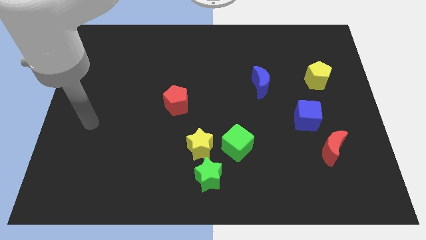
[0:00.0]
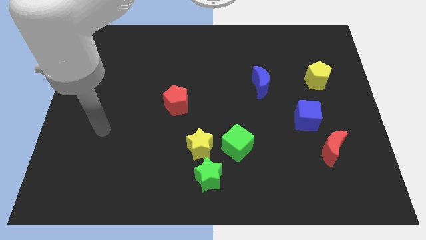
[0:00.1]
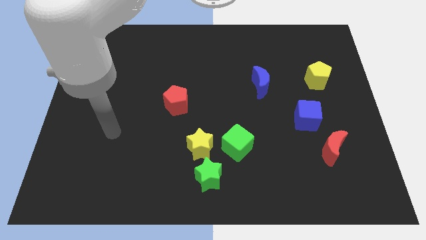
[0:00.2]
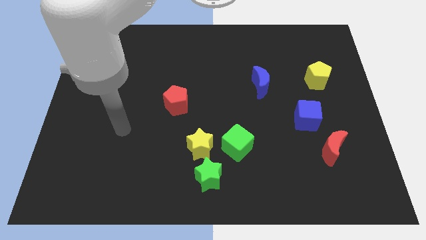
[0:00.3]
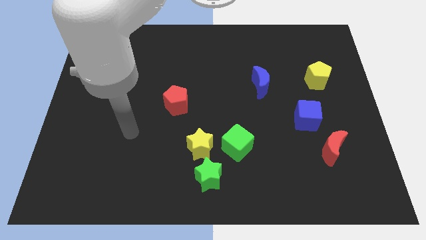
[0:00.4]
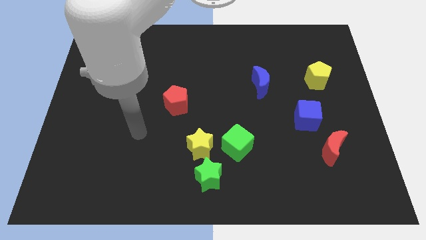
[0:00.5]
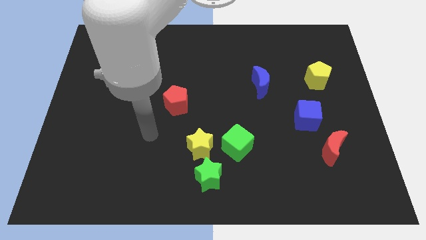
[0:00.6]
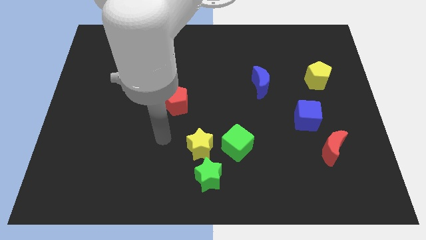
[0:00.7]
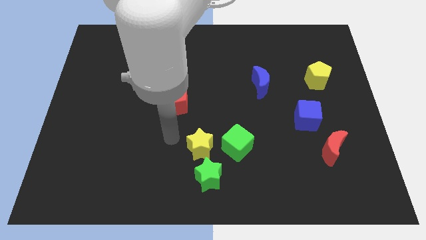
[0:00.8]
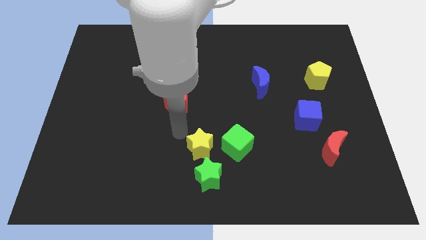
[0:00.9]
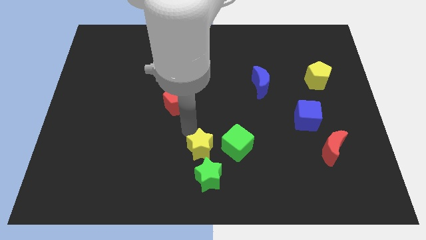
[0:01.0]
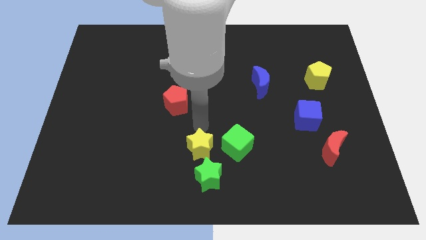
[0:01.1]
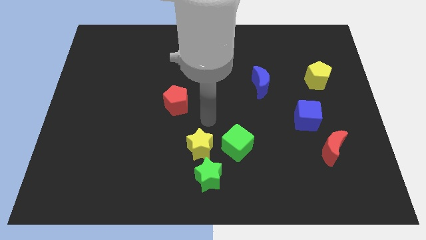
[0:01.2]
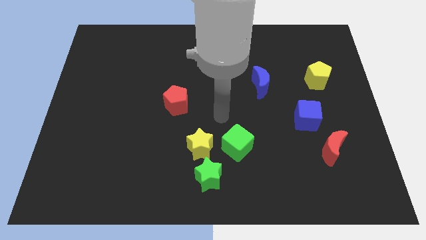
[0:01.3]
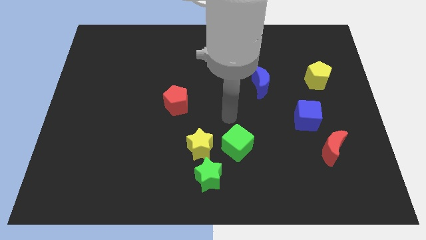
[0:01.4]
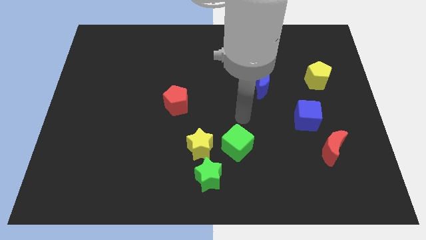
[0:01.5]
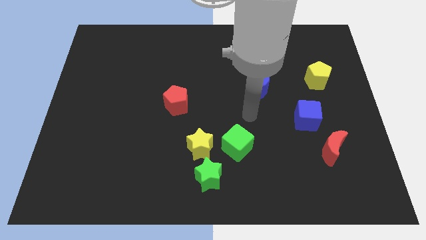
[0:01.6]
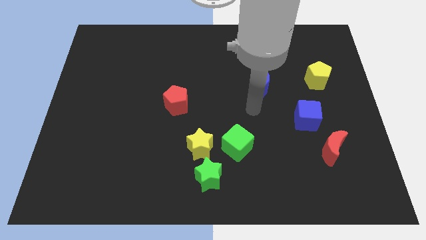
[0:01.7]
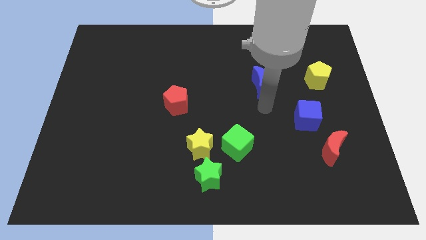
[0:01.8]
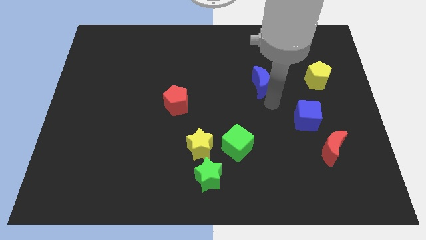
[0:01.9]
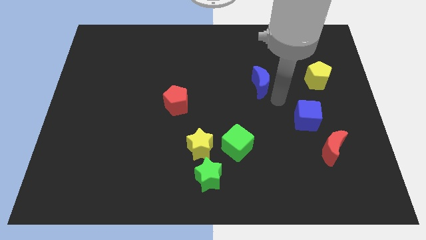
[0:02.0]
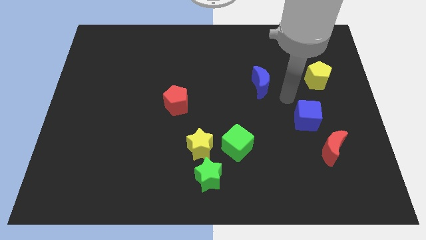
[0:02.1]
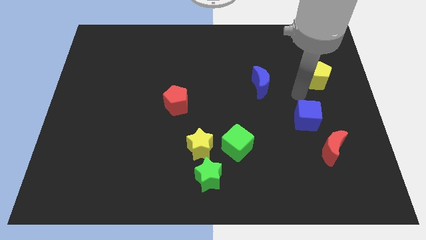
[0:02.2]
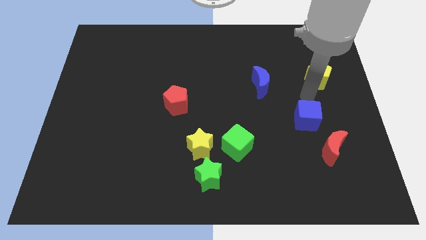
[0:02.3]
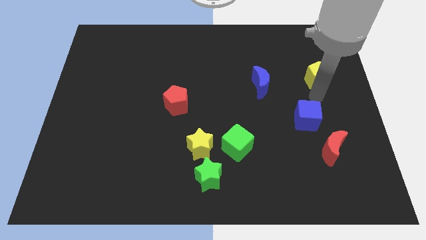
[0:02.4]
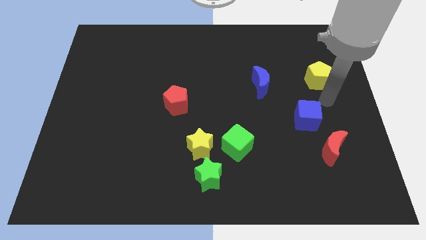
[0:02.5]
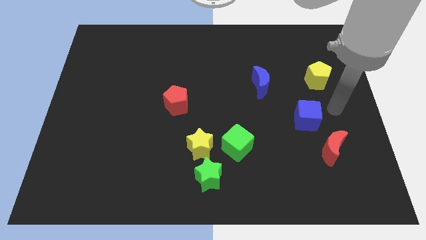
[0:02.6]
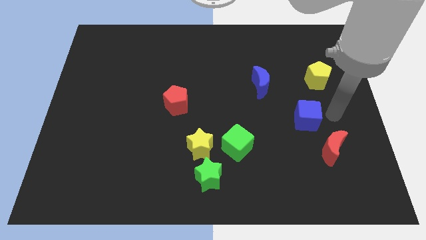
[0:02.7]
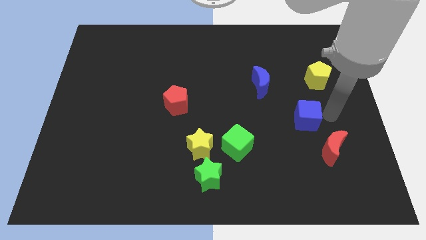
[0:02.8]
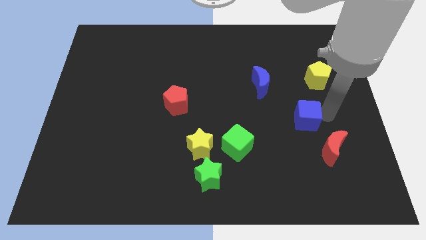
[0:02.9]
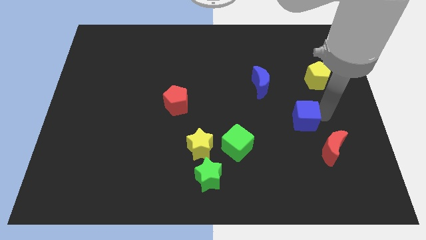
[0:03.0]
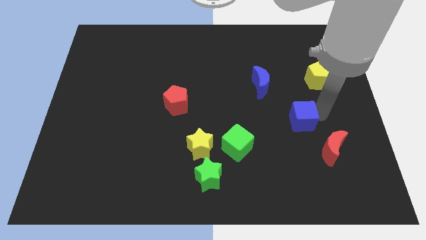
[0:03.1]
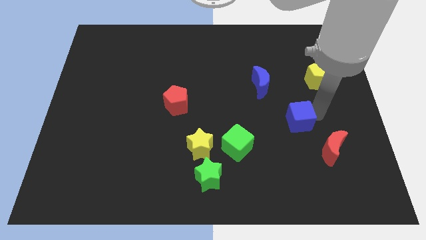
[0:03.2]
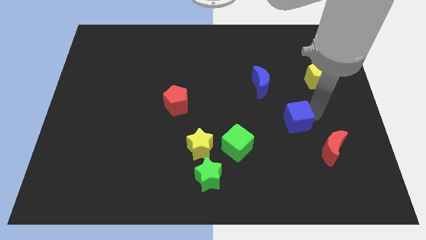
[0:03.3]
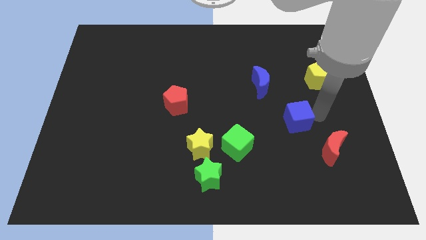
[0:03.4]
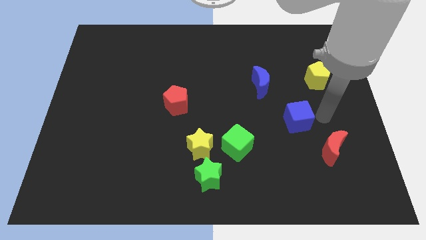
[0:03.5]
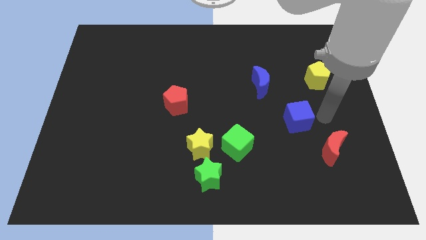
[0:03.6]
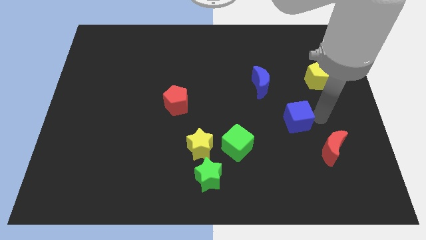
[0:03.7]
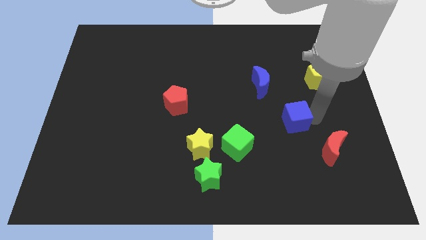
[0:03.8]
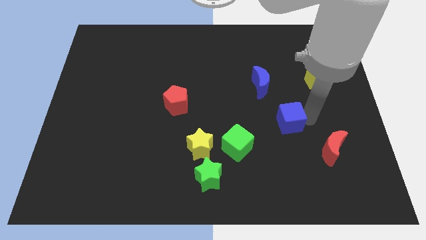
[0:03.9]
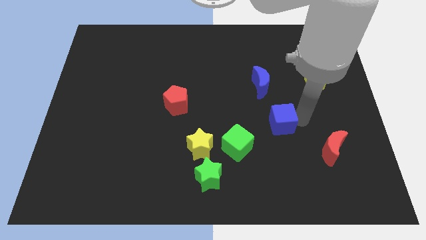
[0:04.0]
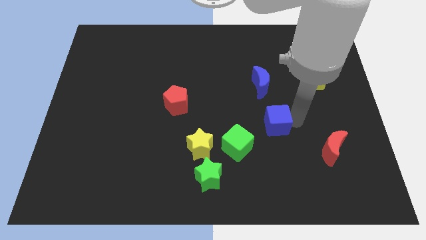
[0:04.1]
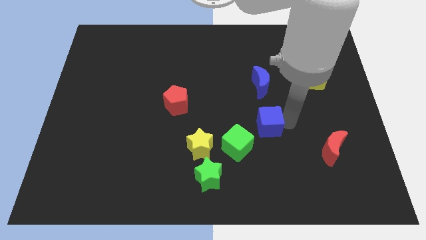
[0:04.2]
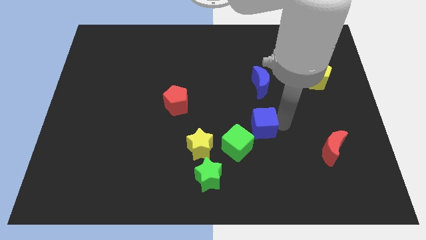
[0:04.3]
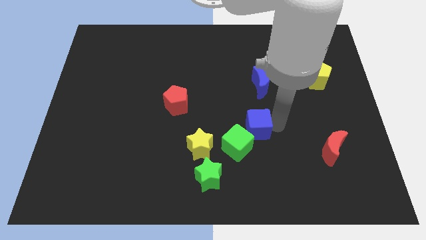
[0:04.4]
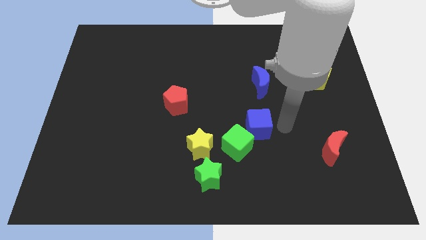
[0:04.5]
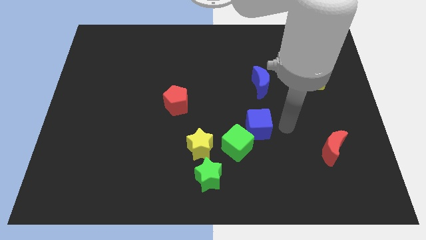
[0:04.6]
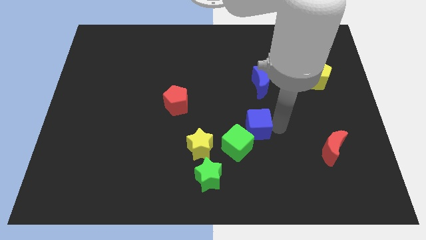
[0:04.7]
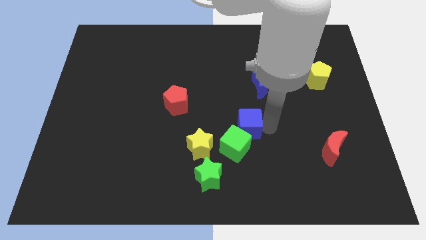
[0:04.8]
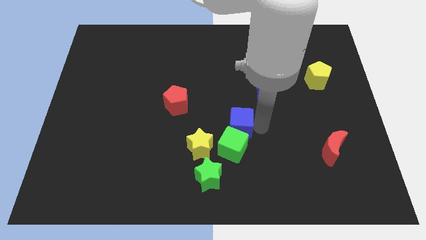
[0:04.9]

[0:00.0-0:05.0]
push the blue cube diagonally up and to the right of the yellow star

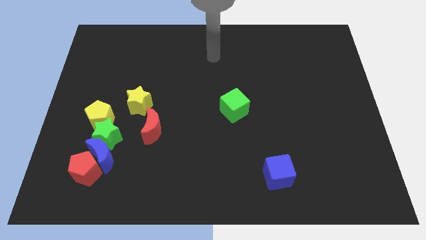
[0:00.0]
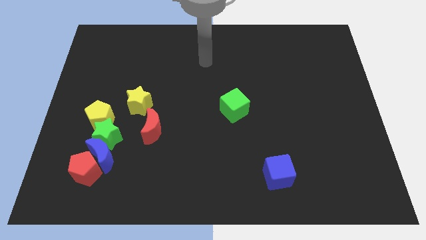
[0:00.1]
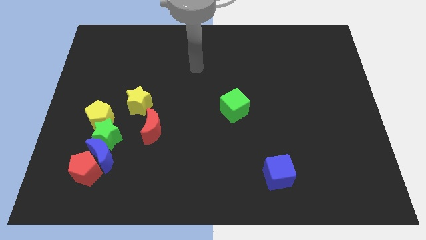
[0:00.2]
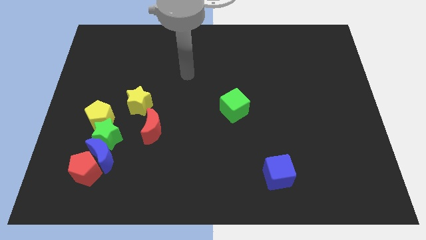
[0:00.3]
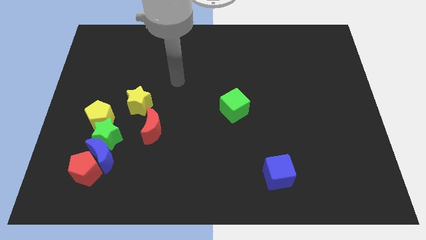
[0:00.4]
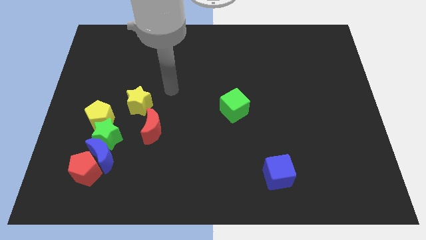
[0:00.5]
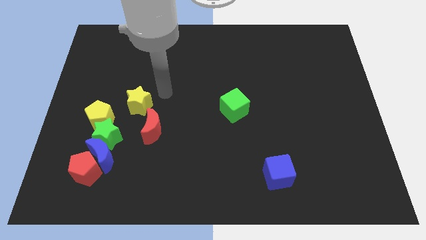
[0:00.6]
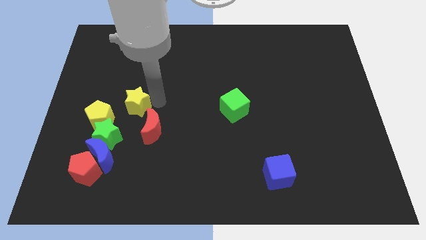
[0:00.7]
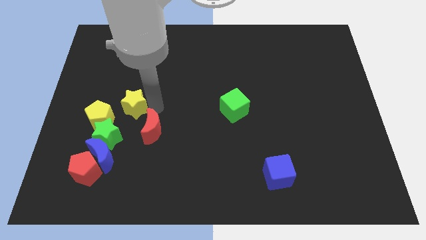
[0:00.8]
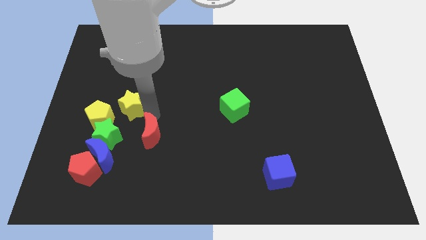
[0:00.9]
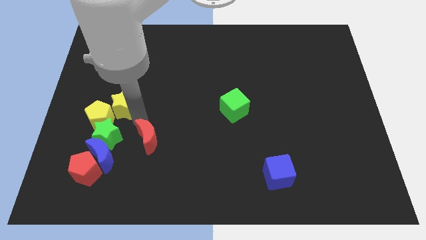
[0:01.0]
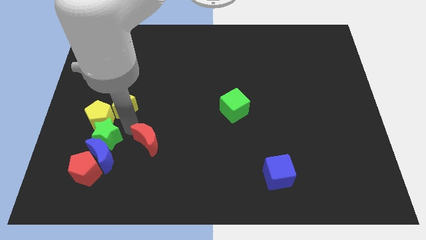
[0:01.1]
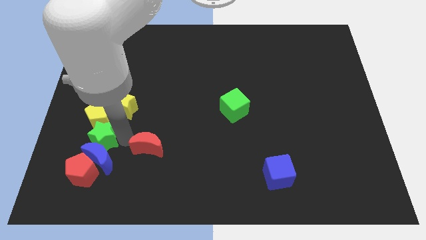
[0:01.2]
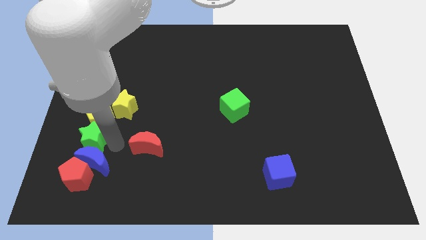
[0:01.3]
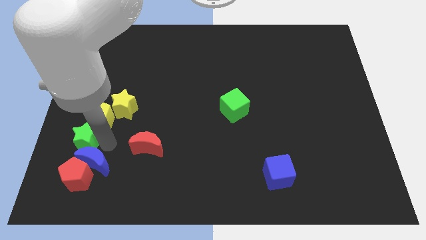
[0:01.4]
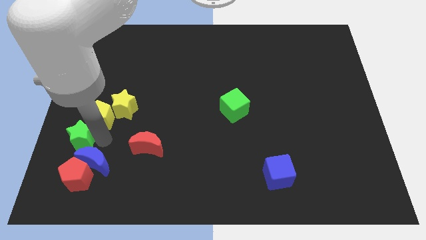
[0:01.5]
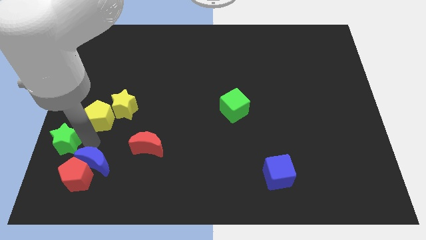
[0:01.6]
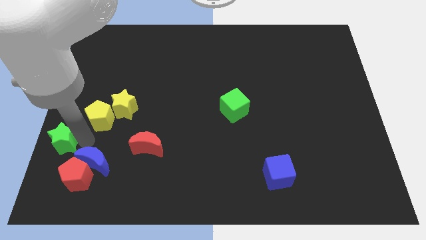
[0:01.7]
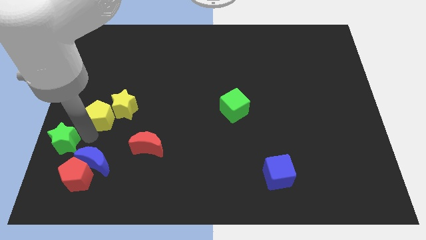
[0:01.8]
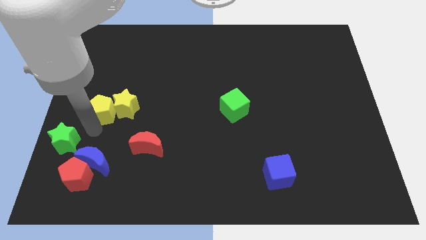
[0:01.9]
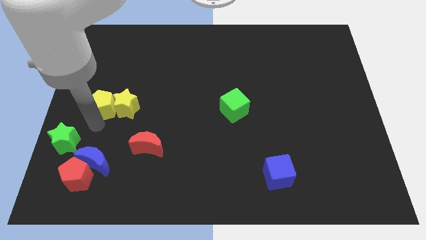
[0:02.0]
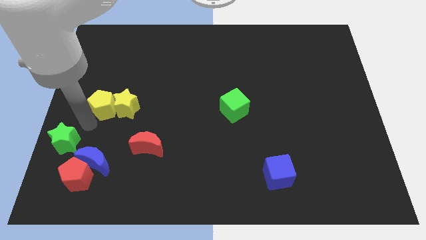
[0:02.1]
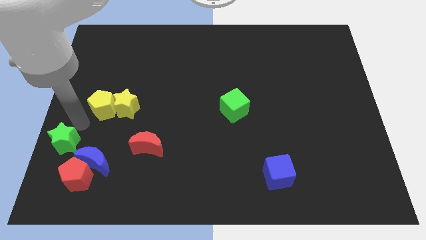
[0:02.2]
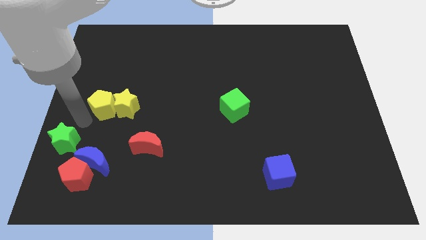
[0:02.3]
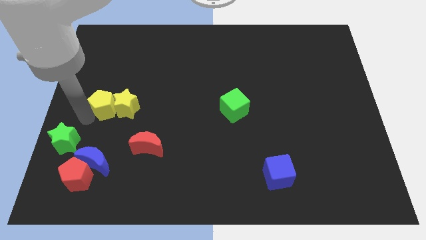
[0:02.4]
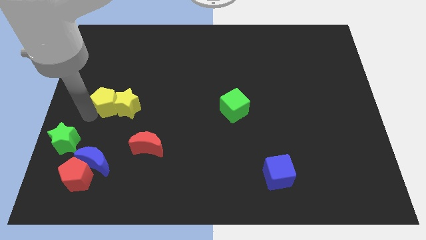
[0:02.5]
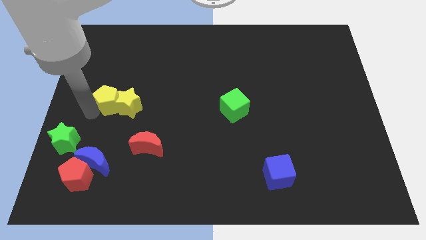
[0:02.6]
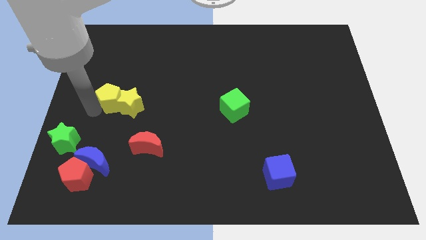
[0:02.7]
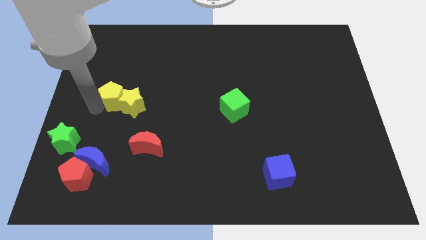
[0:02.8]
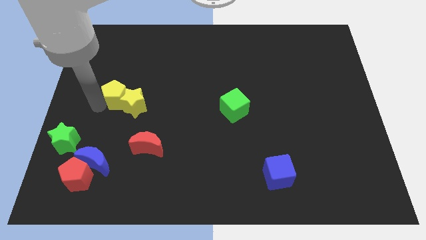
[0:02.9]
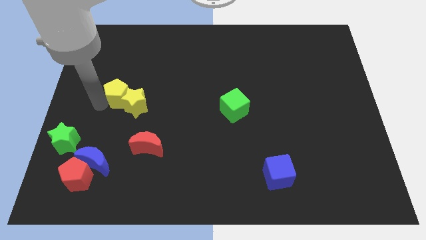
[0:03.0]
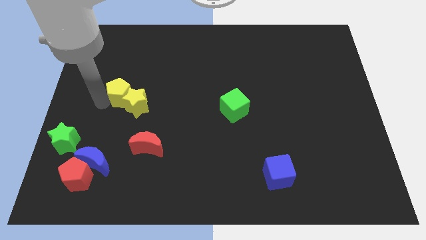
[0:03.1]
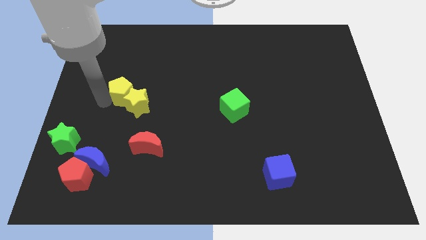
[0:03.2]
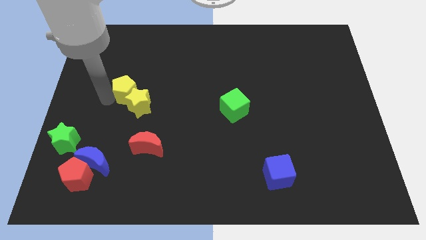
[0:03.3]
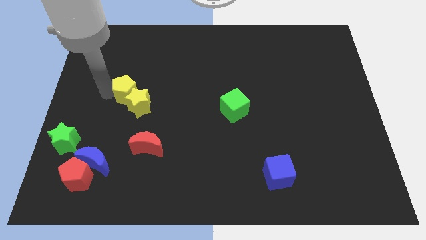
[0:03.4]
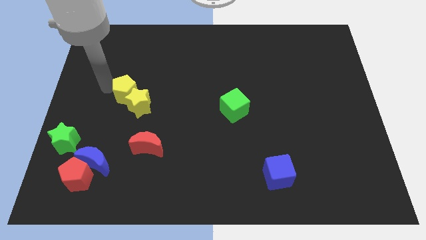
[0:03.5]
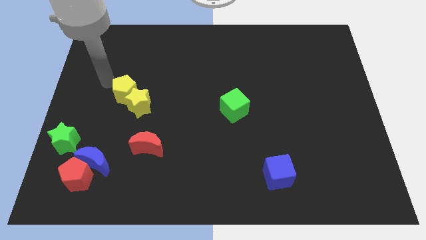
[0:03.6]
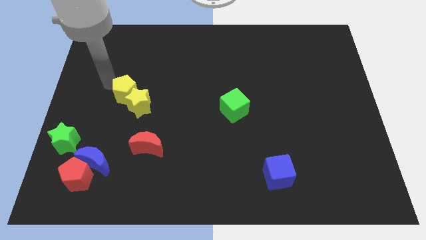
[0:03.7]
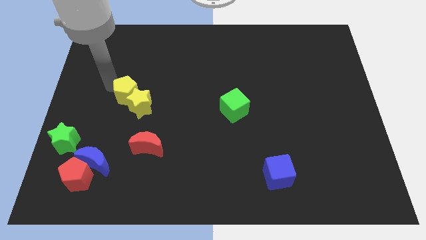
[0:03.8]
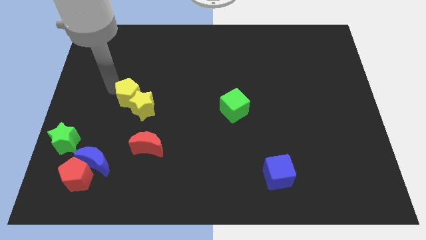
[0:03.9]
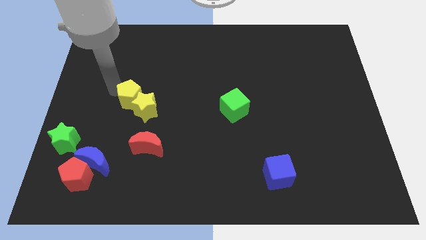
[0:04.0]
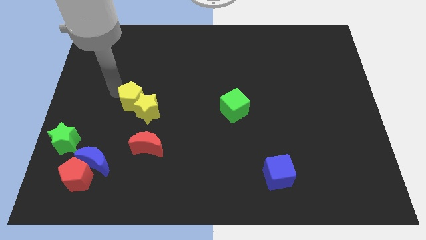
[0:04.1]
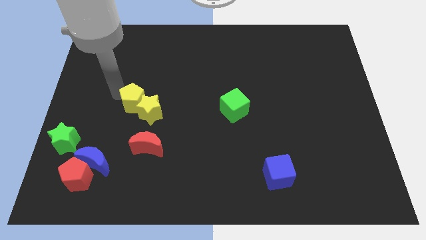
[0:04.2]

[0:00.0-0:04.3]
put the yellow pentagon above the red moon
